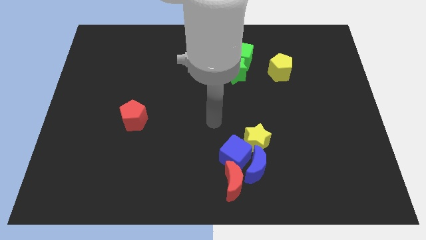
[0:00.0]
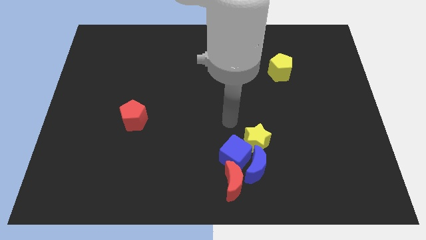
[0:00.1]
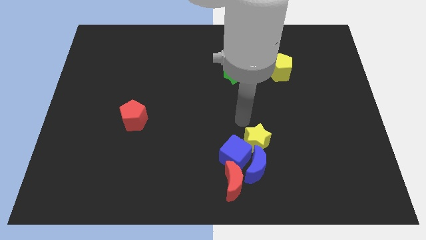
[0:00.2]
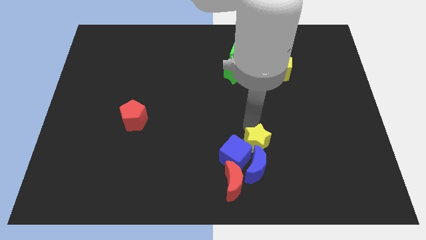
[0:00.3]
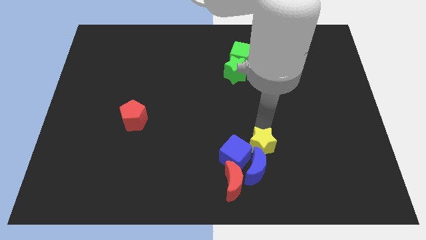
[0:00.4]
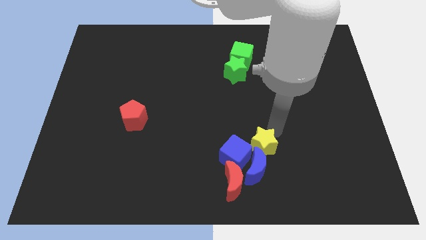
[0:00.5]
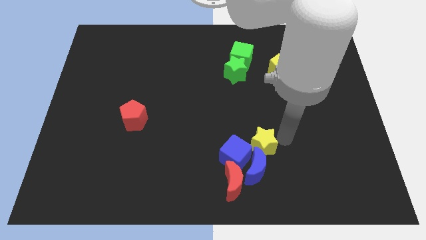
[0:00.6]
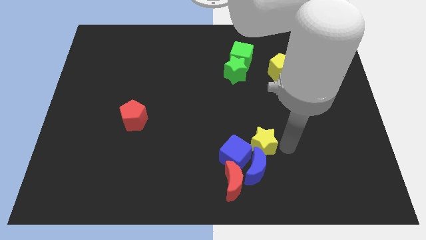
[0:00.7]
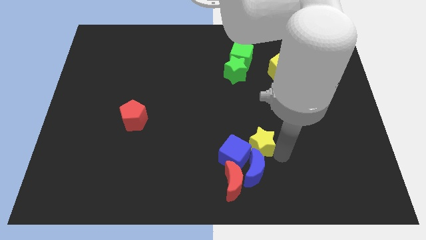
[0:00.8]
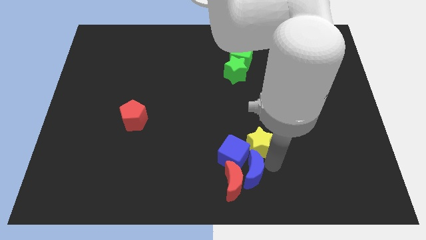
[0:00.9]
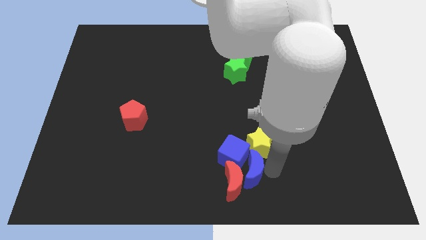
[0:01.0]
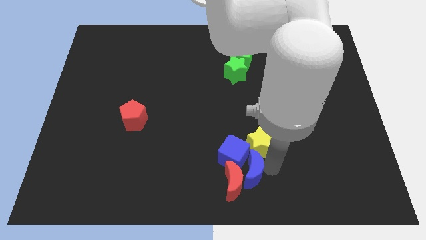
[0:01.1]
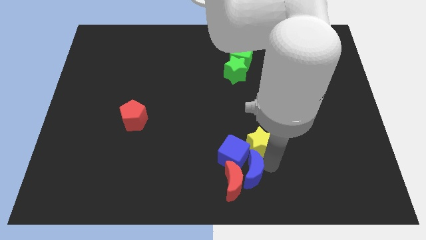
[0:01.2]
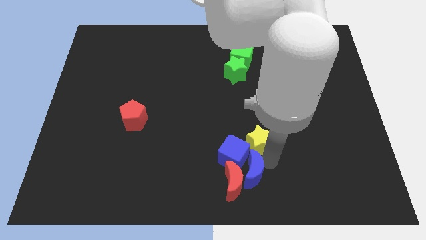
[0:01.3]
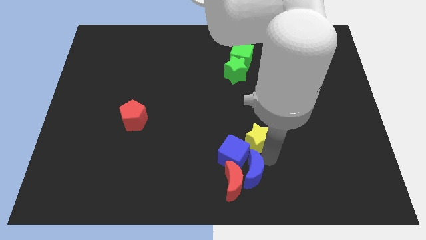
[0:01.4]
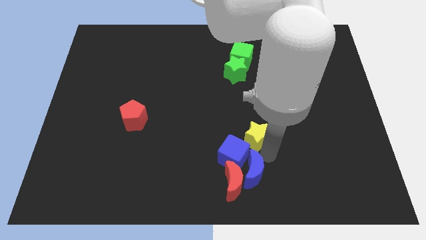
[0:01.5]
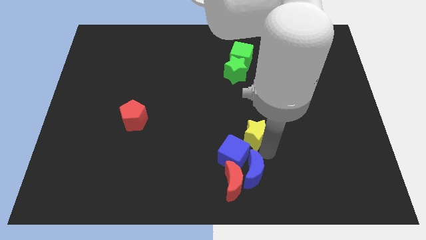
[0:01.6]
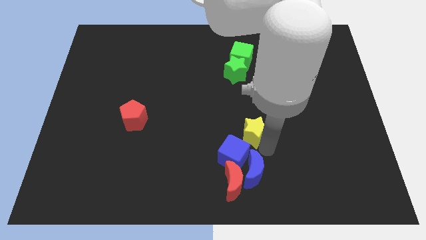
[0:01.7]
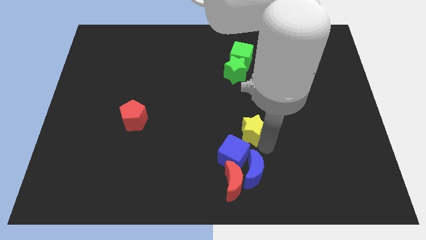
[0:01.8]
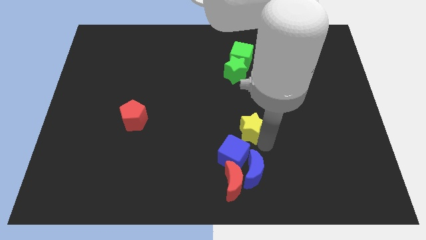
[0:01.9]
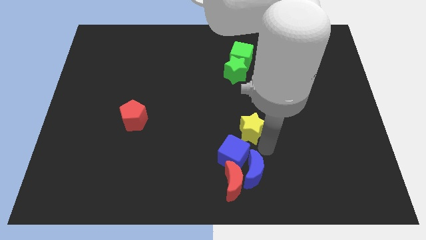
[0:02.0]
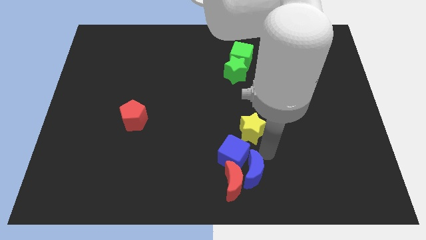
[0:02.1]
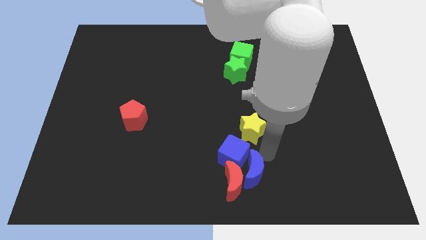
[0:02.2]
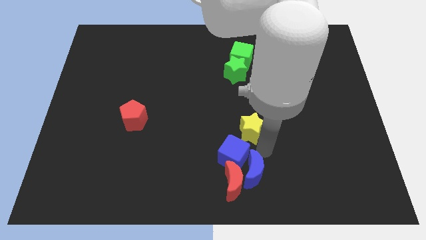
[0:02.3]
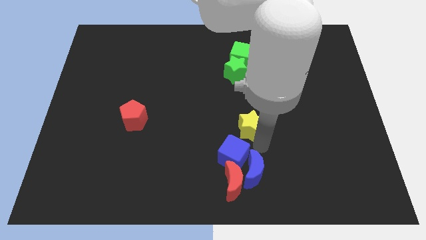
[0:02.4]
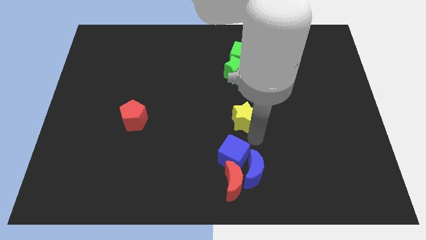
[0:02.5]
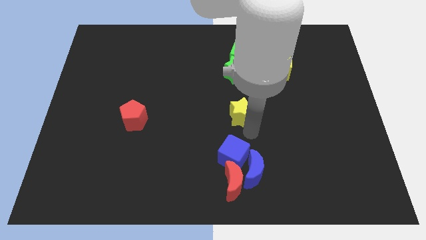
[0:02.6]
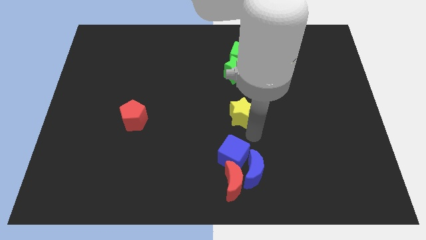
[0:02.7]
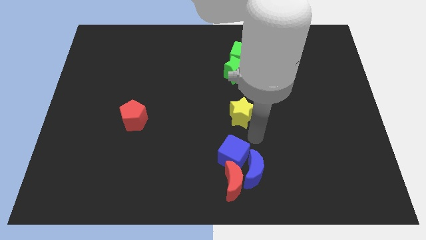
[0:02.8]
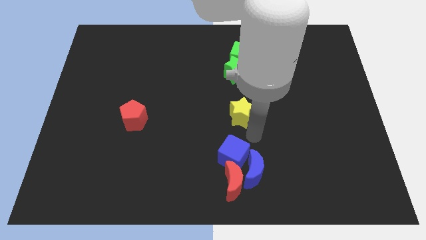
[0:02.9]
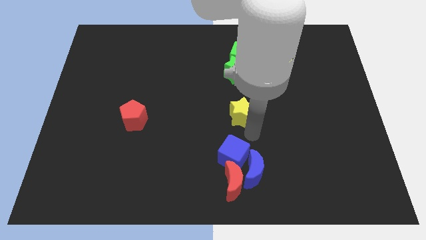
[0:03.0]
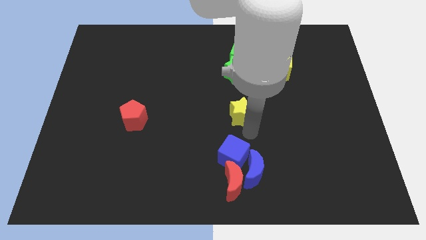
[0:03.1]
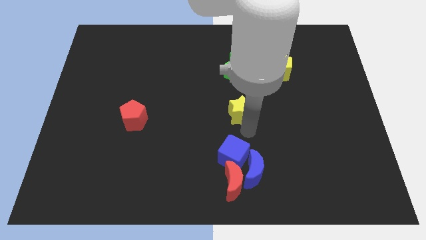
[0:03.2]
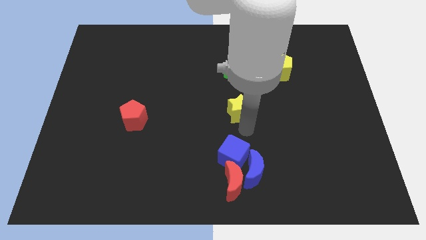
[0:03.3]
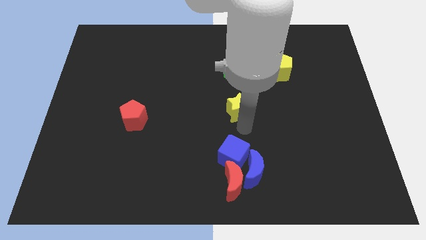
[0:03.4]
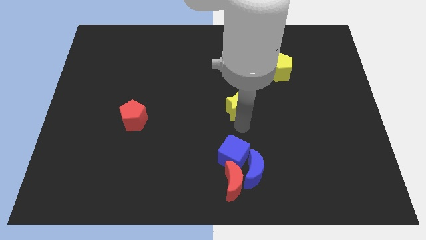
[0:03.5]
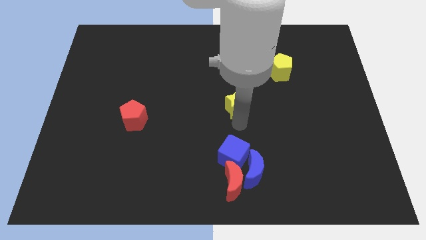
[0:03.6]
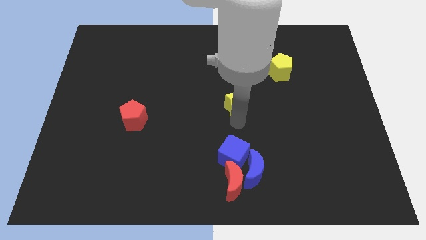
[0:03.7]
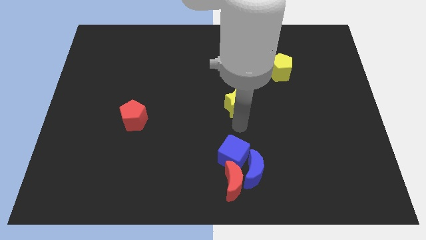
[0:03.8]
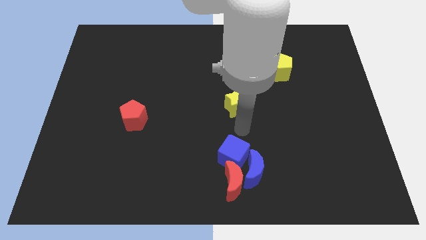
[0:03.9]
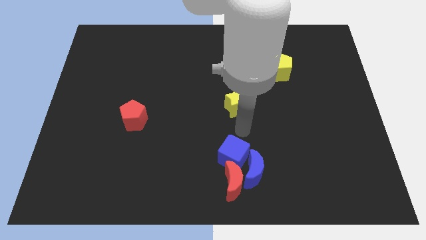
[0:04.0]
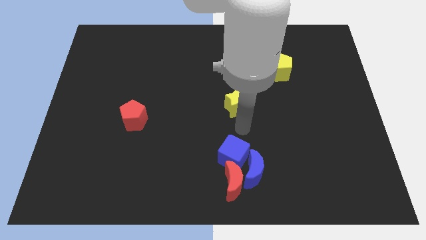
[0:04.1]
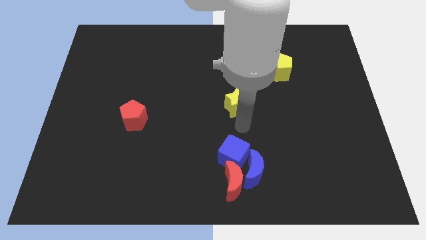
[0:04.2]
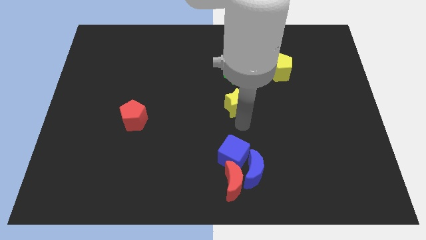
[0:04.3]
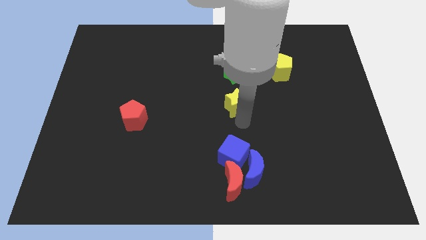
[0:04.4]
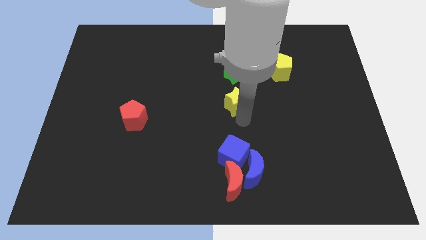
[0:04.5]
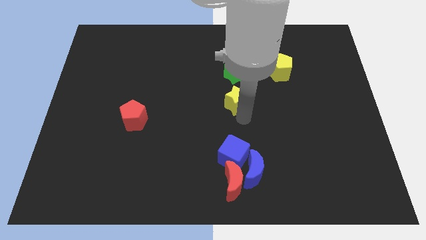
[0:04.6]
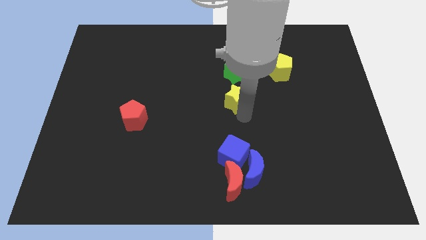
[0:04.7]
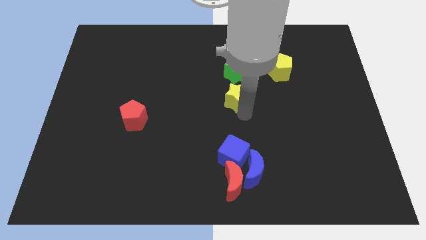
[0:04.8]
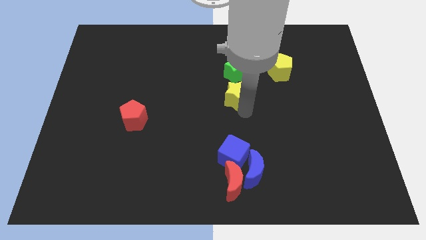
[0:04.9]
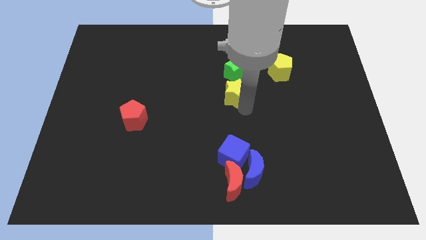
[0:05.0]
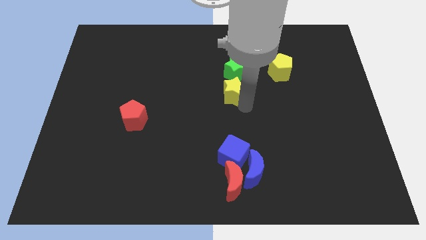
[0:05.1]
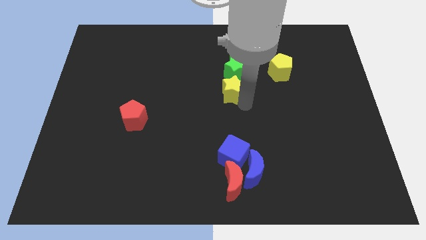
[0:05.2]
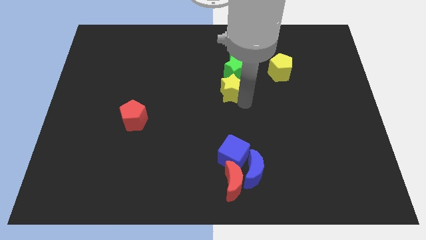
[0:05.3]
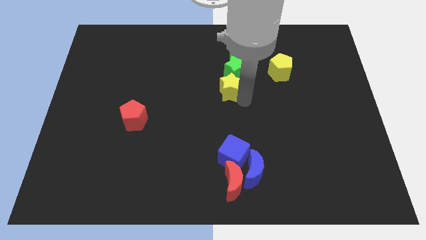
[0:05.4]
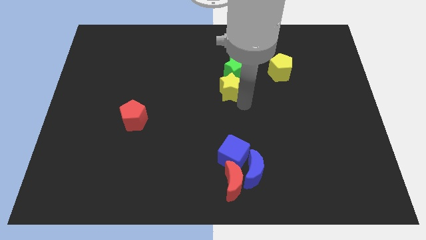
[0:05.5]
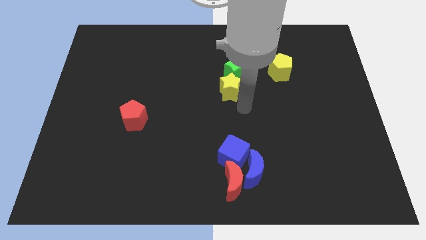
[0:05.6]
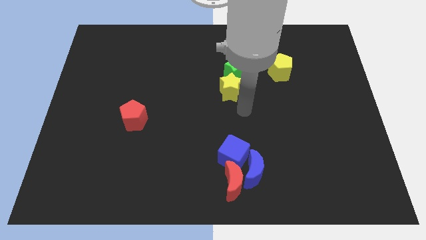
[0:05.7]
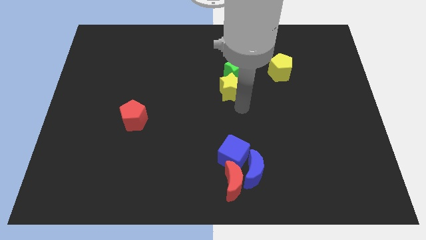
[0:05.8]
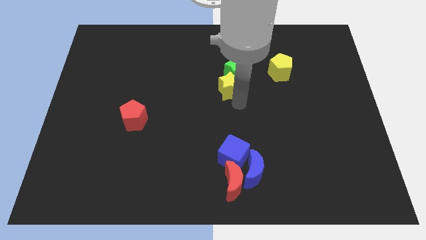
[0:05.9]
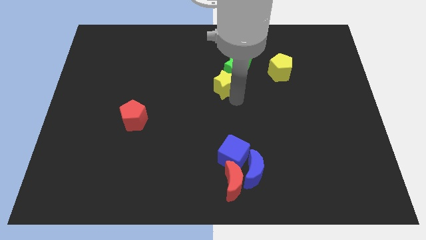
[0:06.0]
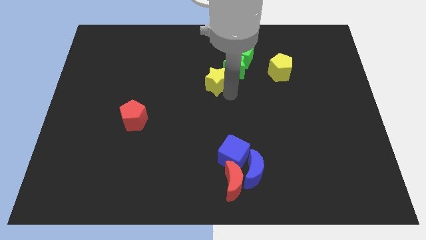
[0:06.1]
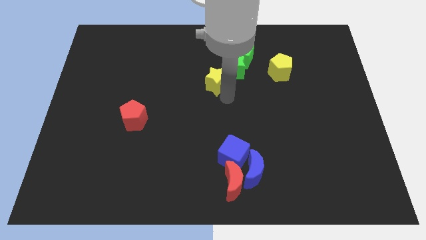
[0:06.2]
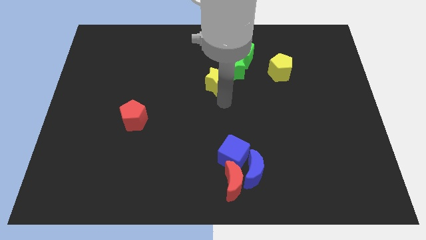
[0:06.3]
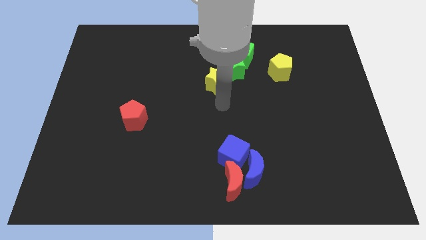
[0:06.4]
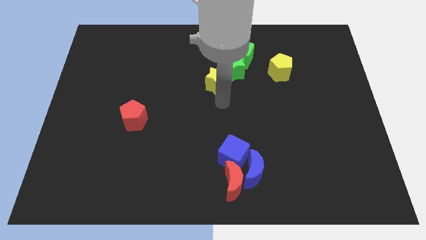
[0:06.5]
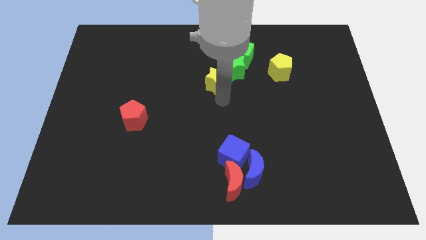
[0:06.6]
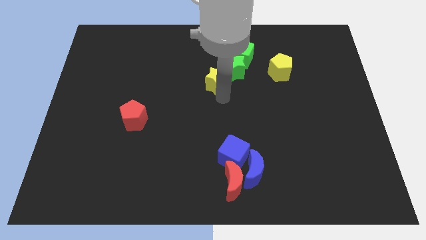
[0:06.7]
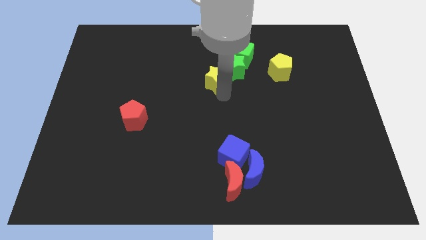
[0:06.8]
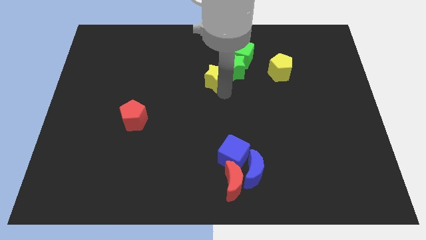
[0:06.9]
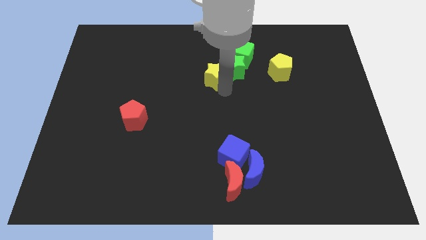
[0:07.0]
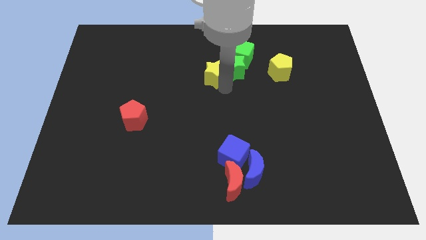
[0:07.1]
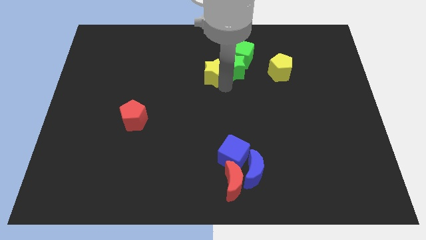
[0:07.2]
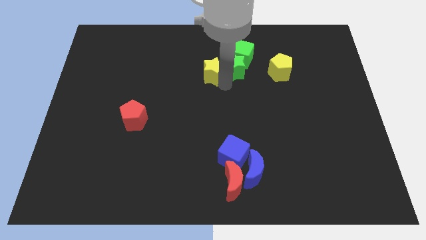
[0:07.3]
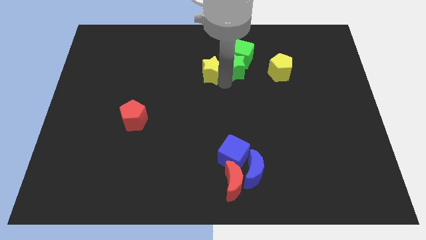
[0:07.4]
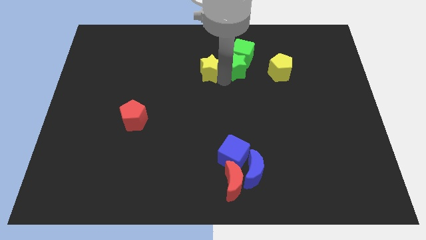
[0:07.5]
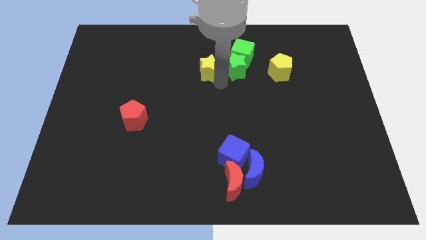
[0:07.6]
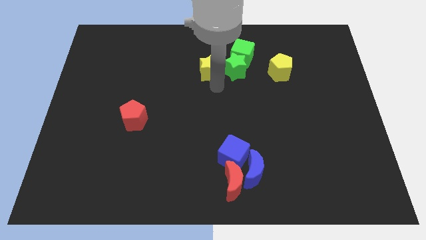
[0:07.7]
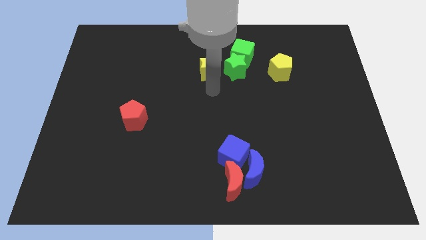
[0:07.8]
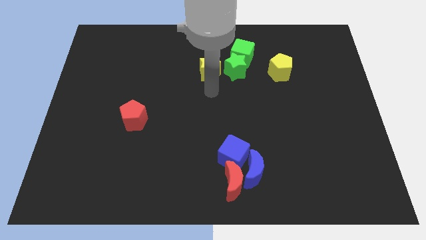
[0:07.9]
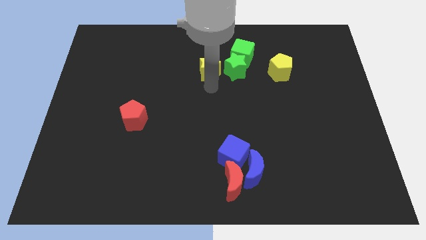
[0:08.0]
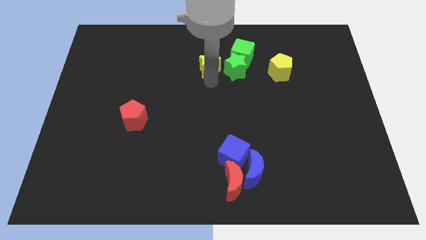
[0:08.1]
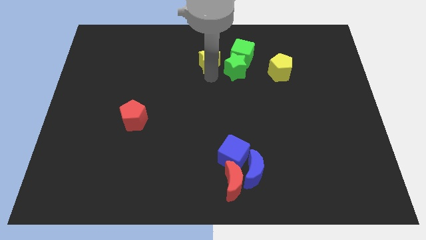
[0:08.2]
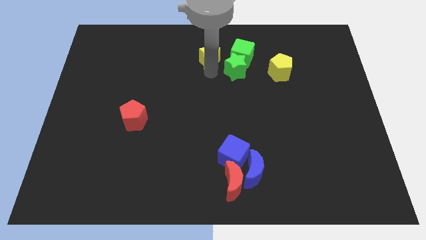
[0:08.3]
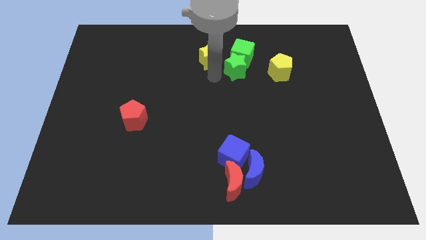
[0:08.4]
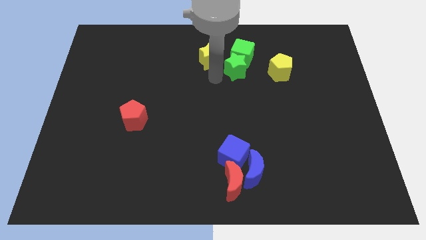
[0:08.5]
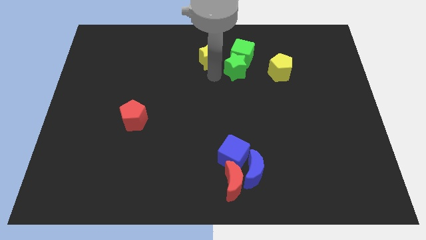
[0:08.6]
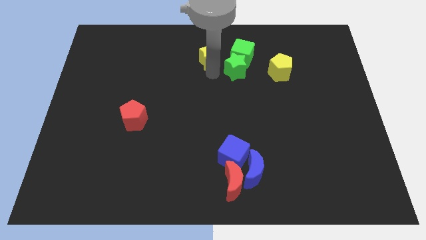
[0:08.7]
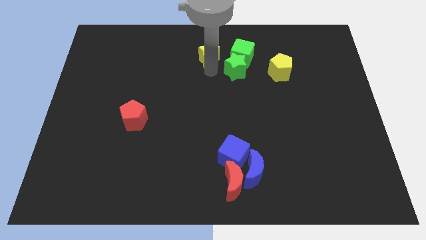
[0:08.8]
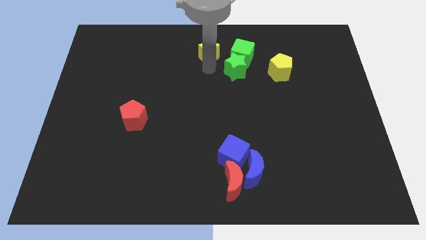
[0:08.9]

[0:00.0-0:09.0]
push the yellow star to the towards your base
